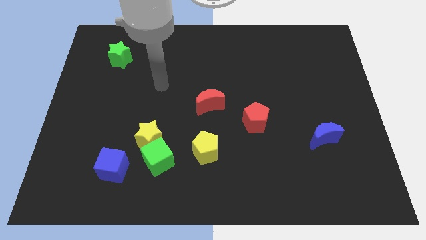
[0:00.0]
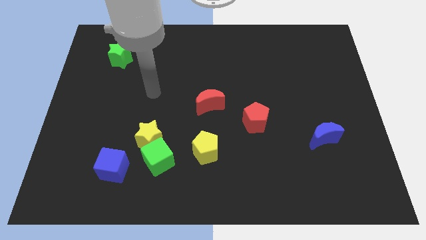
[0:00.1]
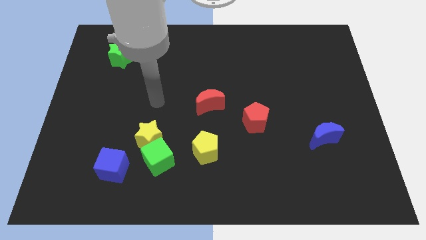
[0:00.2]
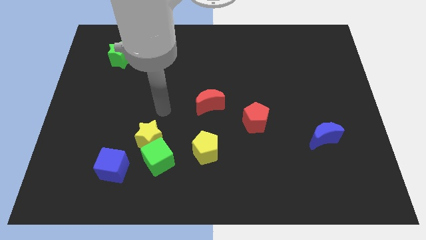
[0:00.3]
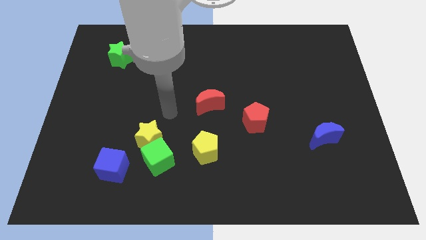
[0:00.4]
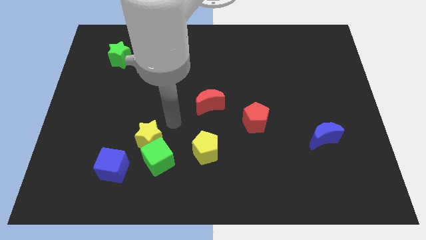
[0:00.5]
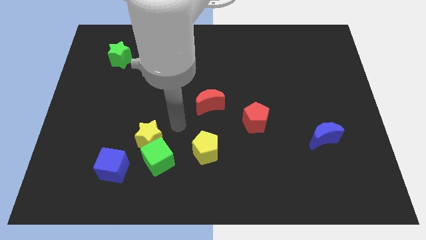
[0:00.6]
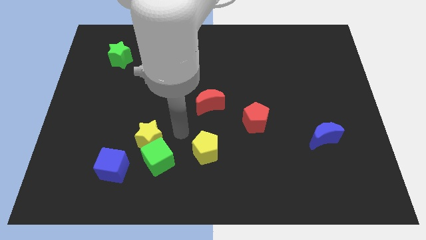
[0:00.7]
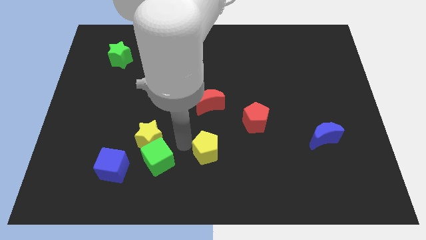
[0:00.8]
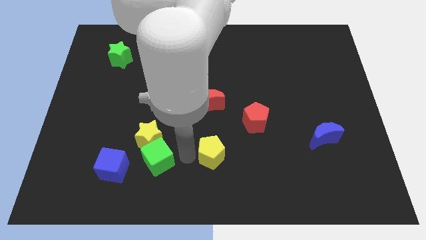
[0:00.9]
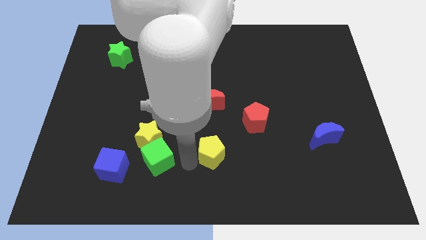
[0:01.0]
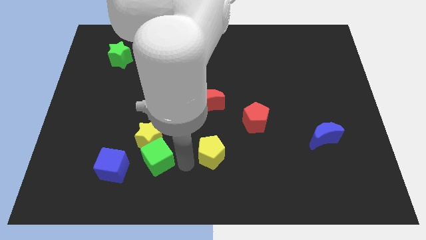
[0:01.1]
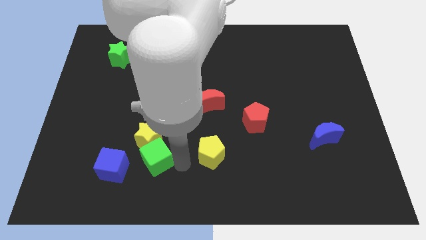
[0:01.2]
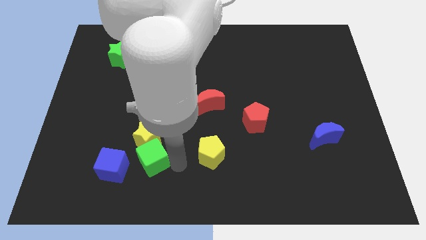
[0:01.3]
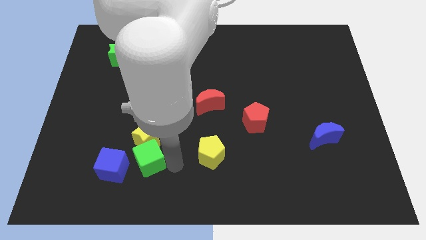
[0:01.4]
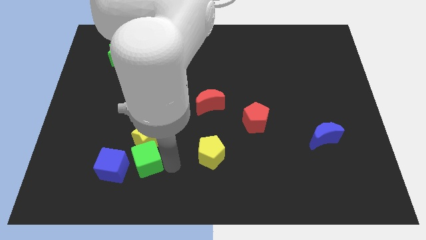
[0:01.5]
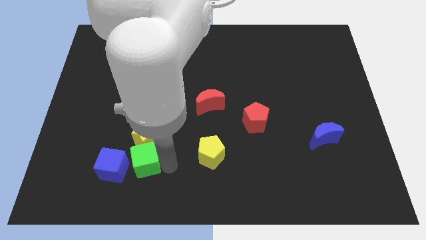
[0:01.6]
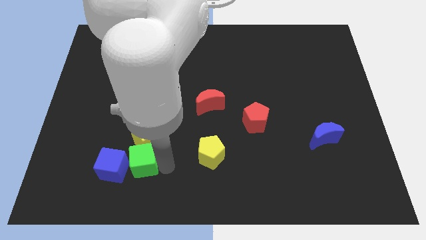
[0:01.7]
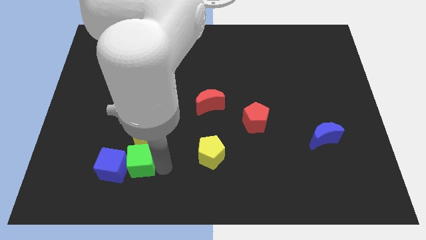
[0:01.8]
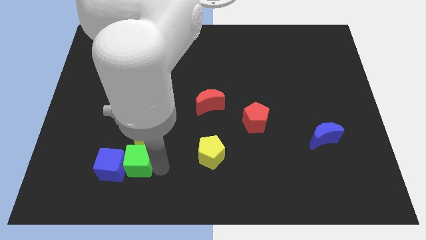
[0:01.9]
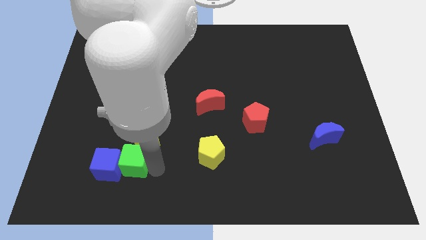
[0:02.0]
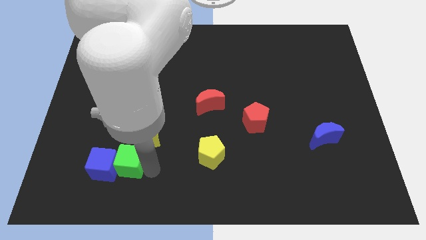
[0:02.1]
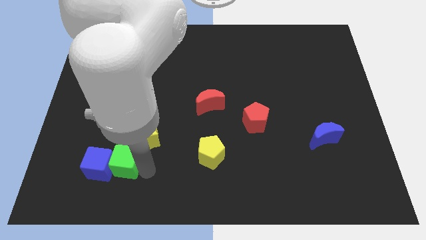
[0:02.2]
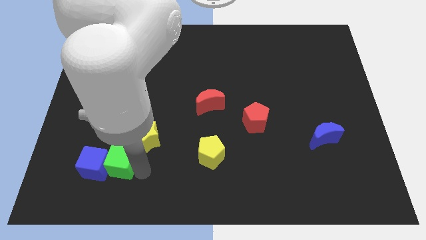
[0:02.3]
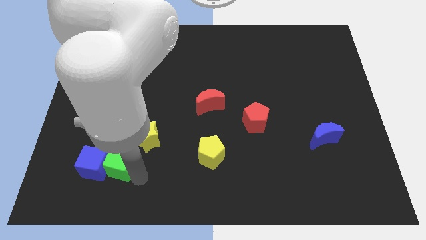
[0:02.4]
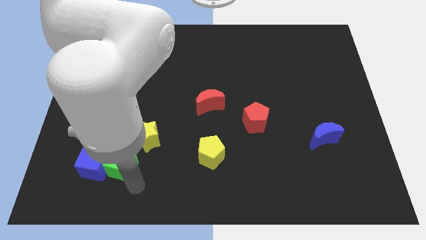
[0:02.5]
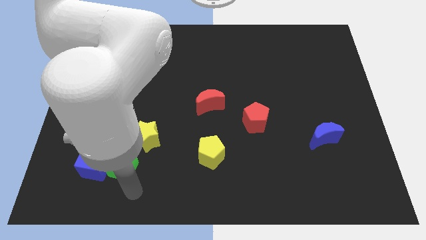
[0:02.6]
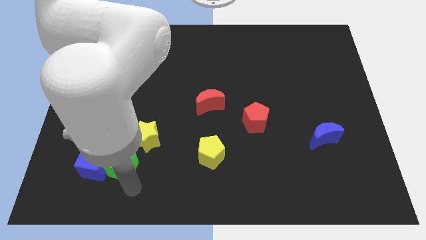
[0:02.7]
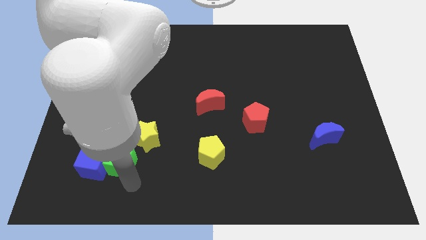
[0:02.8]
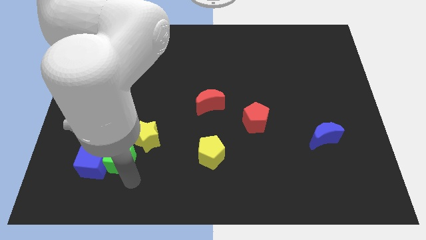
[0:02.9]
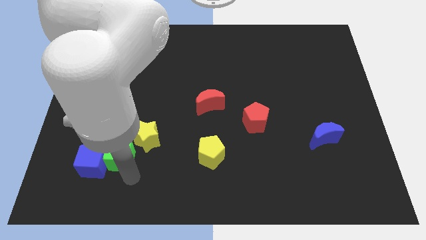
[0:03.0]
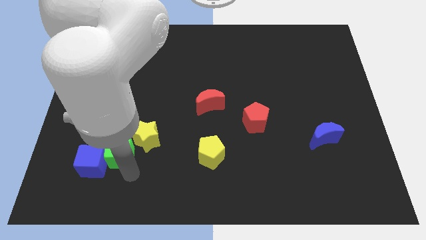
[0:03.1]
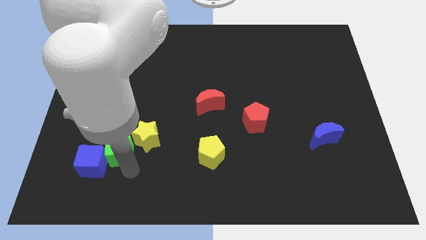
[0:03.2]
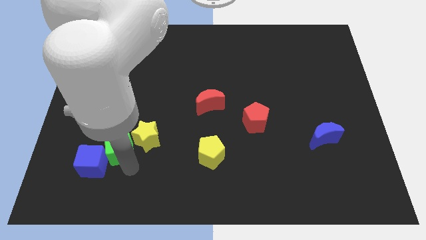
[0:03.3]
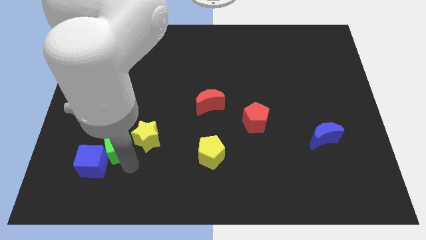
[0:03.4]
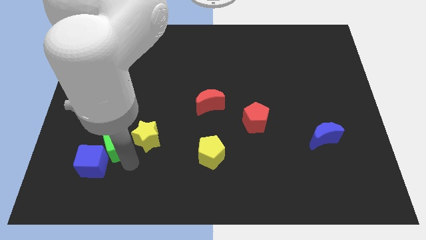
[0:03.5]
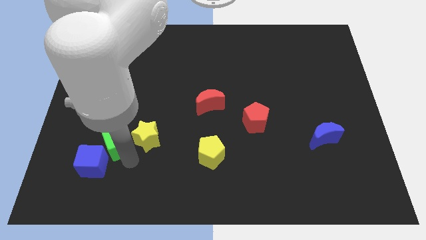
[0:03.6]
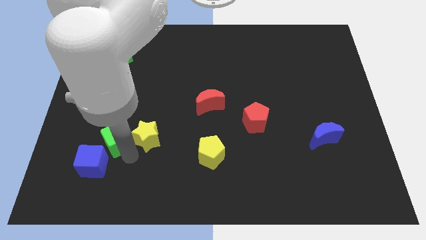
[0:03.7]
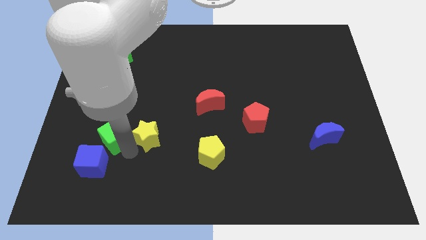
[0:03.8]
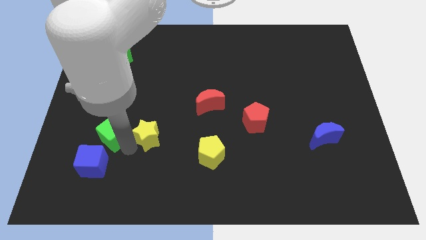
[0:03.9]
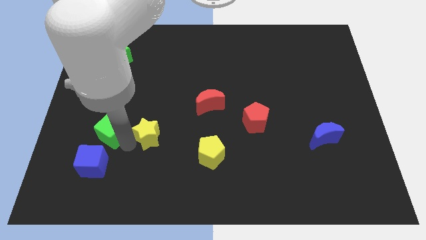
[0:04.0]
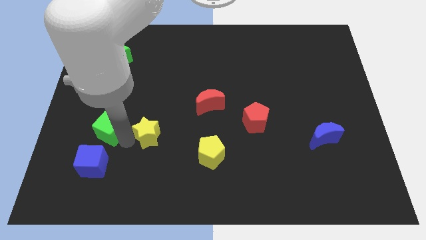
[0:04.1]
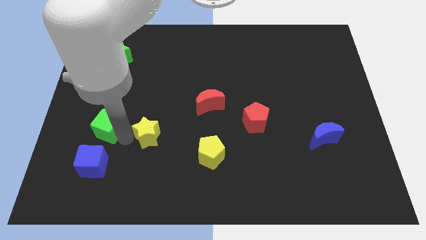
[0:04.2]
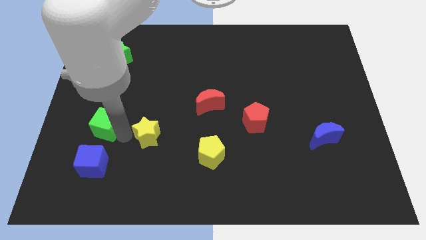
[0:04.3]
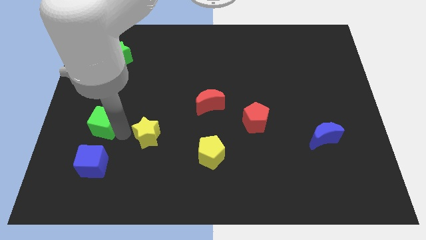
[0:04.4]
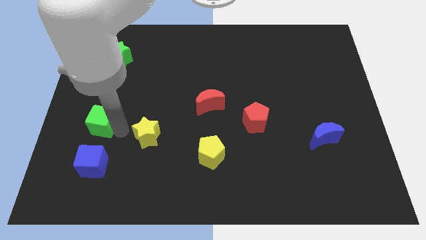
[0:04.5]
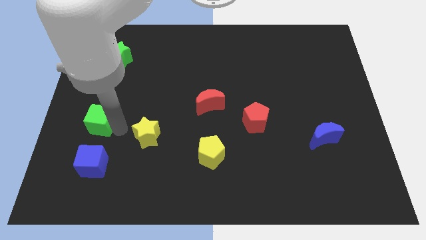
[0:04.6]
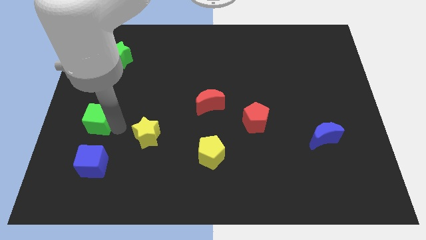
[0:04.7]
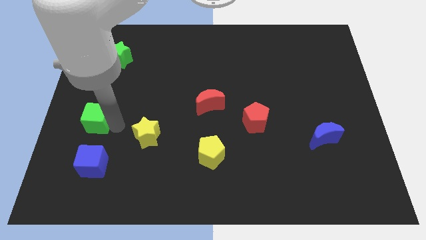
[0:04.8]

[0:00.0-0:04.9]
put the green cube to the left side of the board

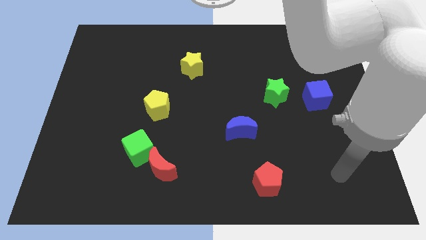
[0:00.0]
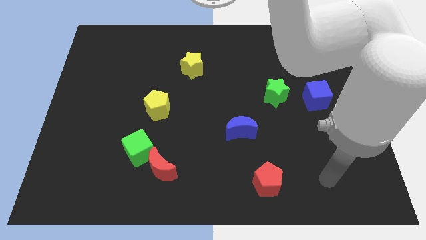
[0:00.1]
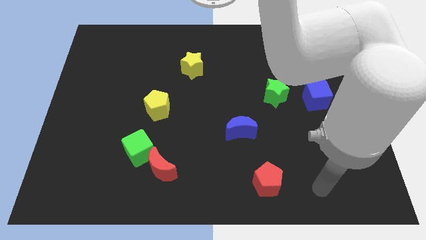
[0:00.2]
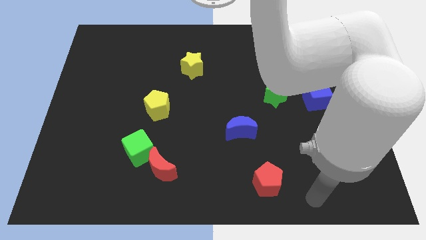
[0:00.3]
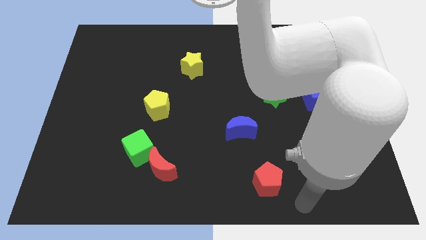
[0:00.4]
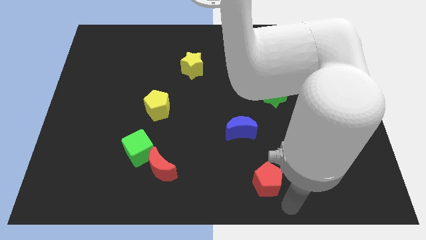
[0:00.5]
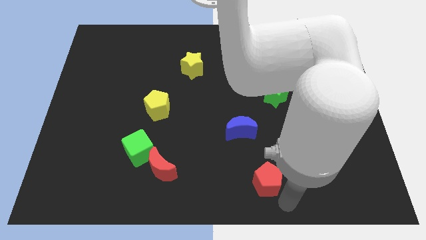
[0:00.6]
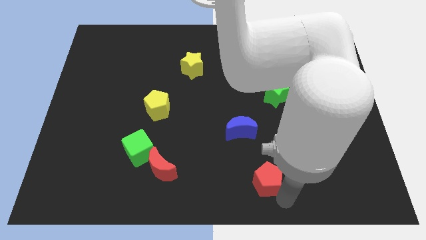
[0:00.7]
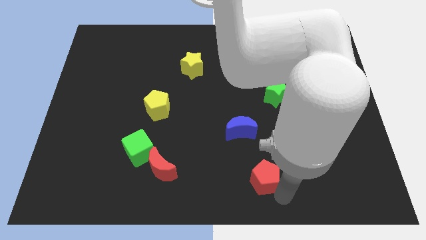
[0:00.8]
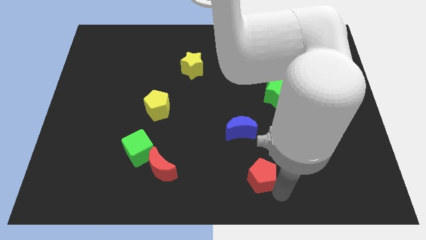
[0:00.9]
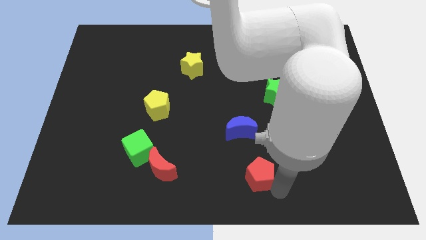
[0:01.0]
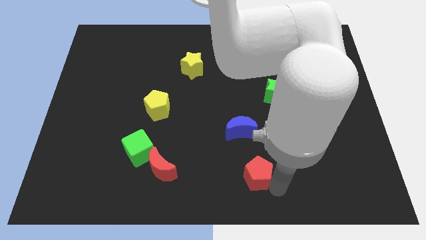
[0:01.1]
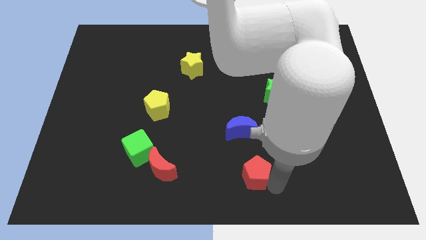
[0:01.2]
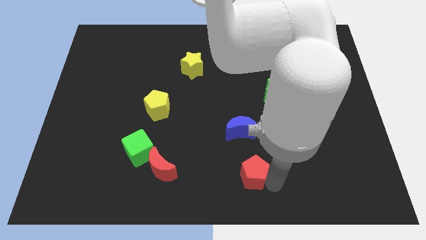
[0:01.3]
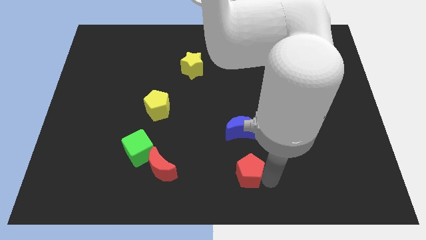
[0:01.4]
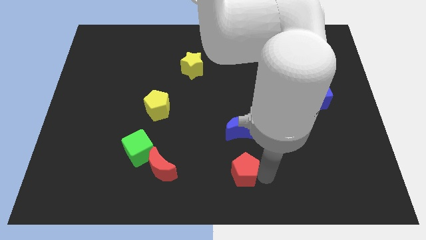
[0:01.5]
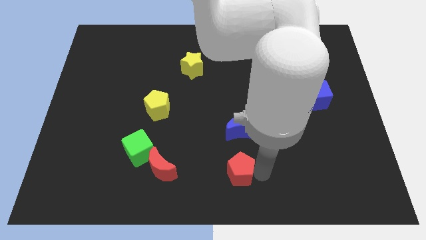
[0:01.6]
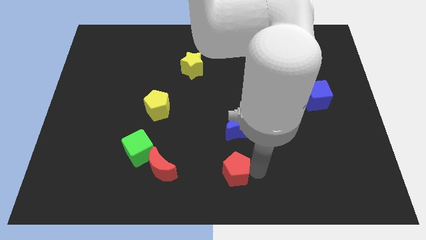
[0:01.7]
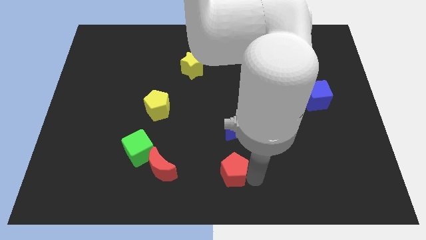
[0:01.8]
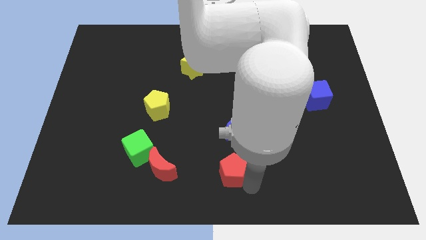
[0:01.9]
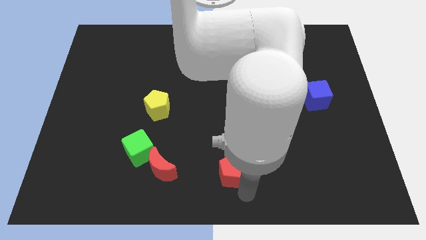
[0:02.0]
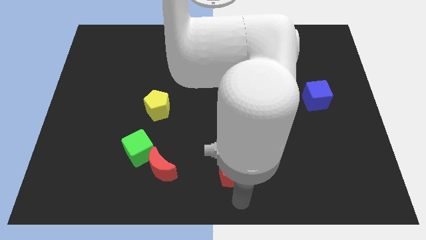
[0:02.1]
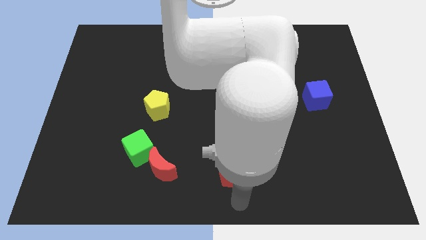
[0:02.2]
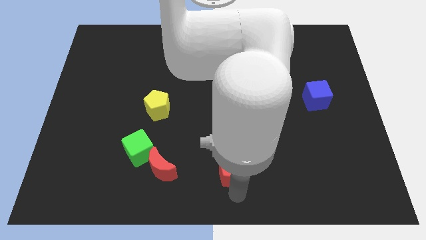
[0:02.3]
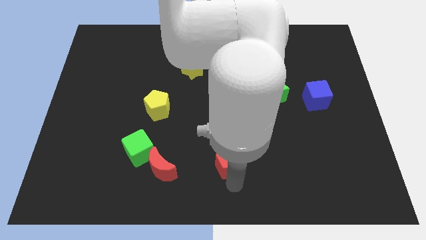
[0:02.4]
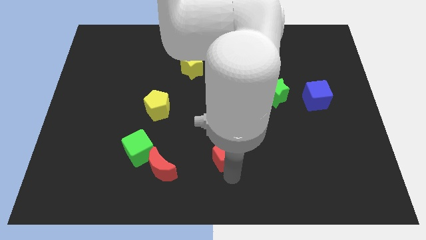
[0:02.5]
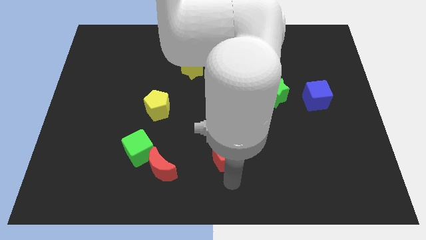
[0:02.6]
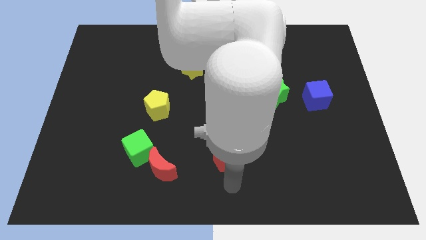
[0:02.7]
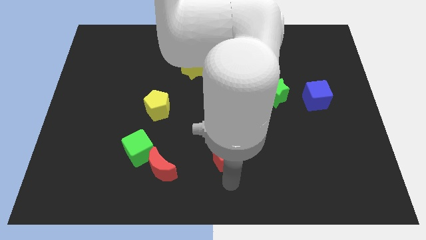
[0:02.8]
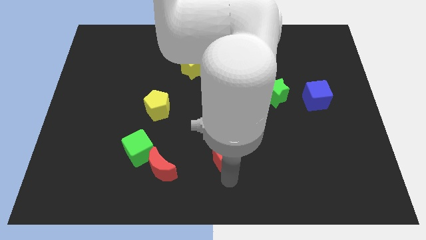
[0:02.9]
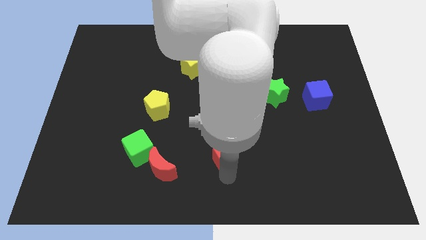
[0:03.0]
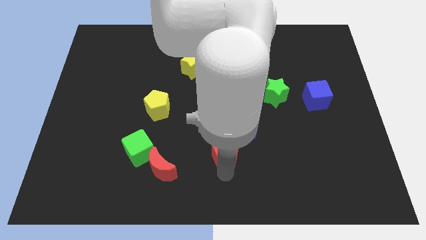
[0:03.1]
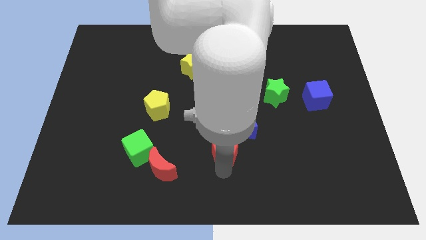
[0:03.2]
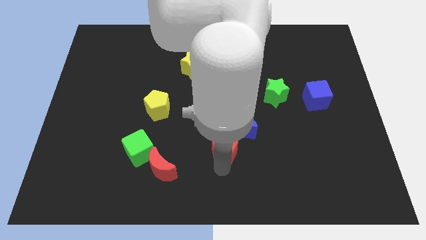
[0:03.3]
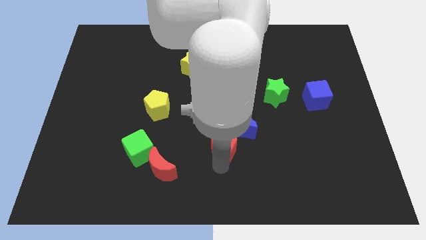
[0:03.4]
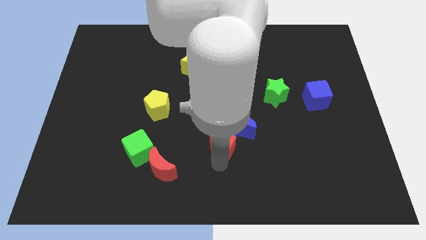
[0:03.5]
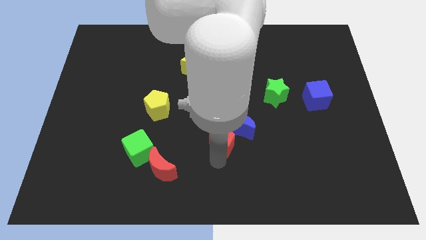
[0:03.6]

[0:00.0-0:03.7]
put the red pentagon to the middle of the board

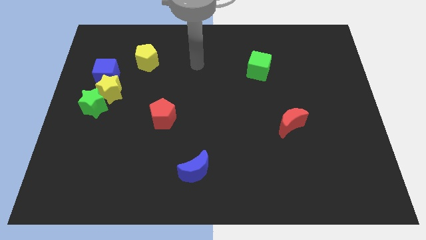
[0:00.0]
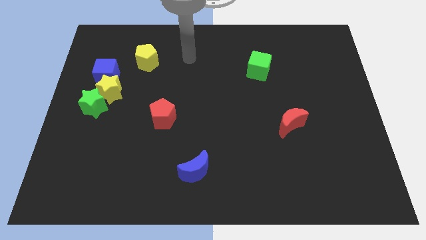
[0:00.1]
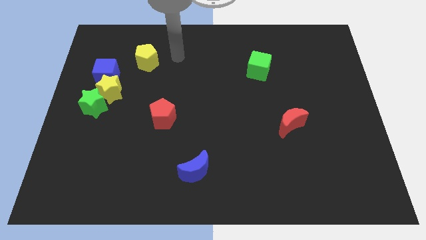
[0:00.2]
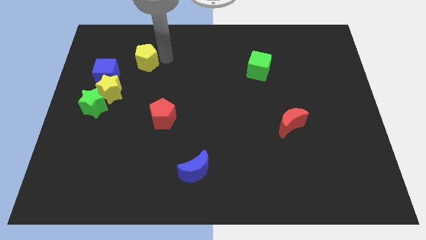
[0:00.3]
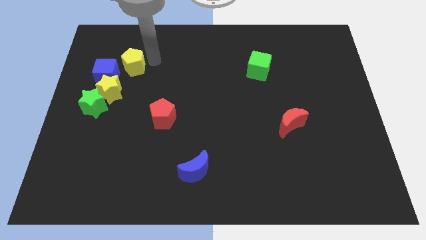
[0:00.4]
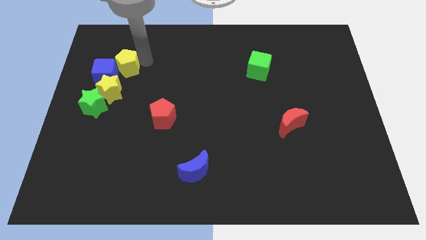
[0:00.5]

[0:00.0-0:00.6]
slide the blue cube to the center left
